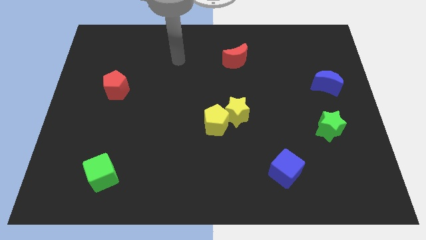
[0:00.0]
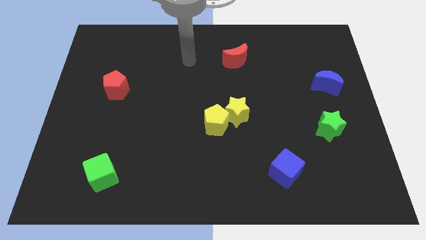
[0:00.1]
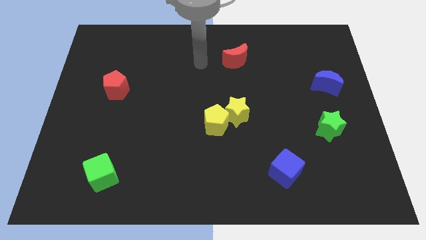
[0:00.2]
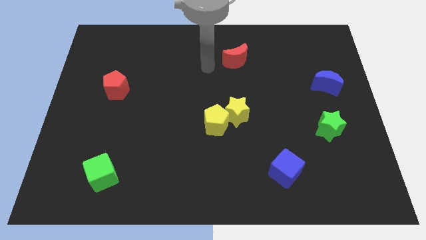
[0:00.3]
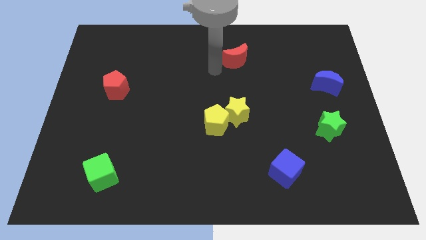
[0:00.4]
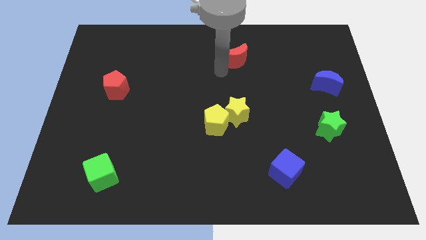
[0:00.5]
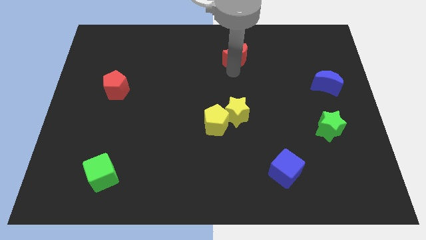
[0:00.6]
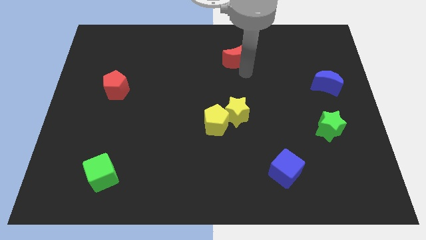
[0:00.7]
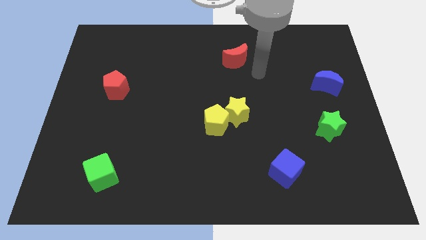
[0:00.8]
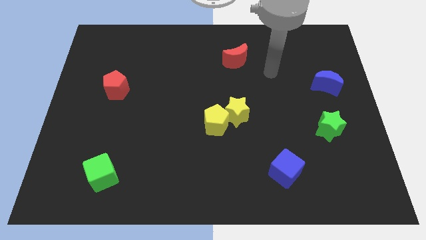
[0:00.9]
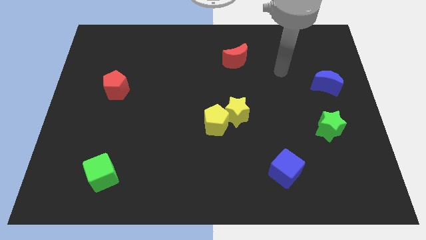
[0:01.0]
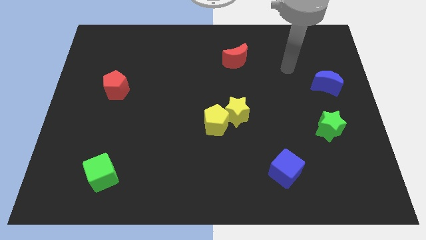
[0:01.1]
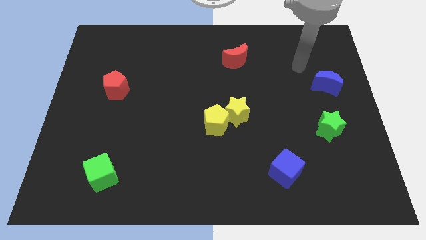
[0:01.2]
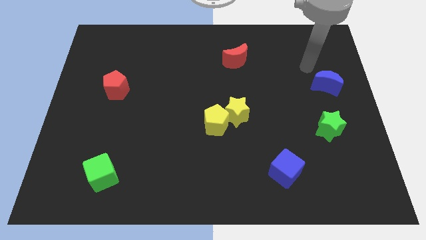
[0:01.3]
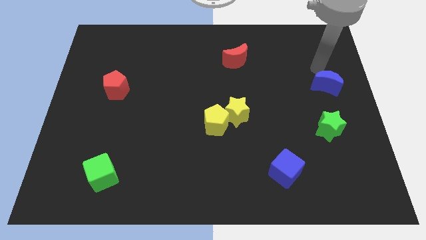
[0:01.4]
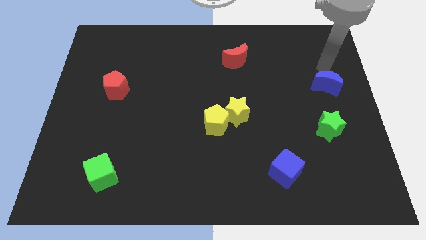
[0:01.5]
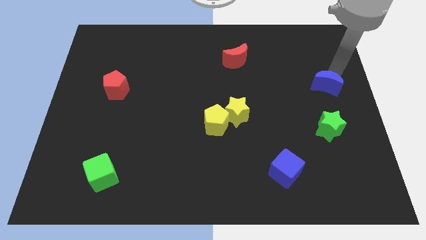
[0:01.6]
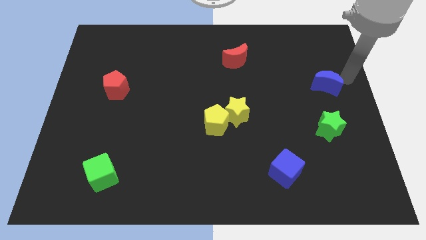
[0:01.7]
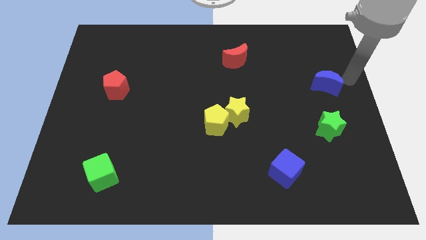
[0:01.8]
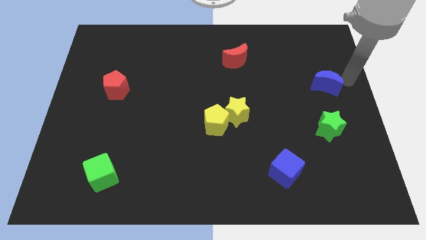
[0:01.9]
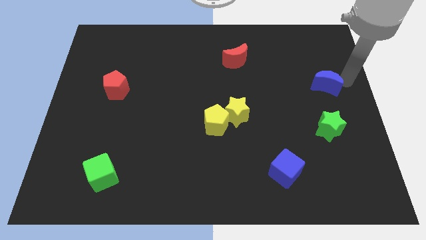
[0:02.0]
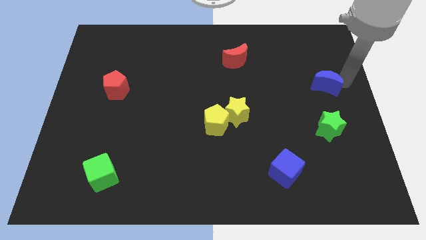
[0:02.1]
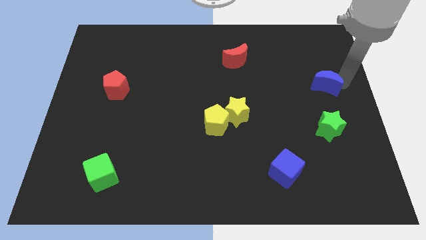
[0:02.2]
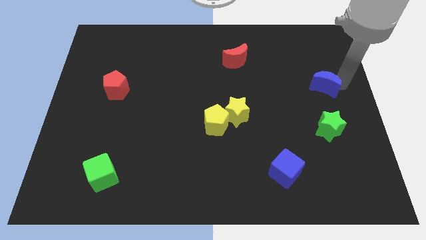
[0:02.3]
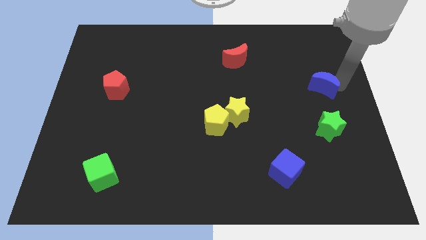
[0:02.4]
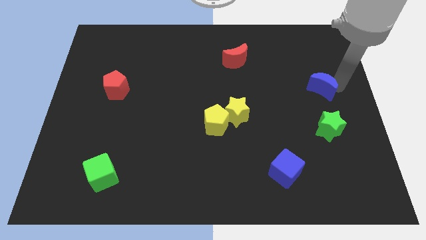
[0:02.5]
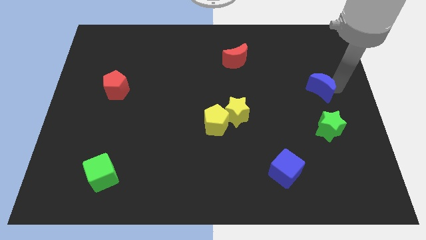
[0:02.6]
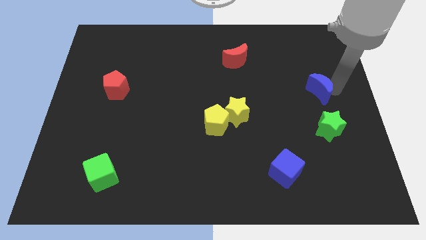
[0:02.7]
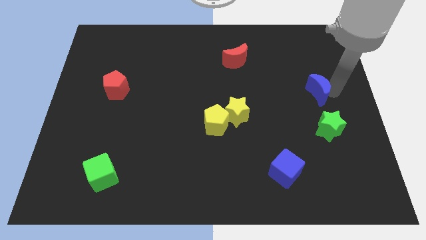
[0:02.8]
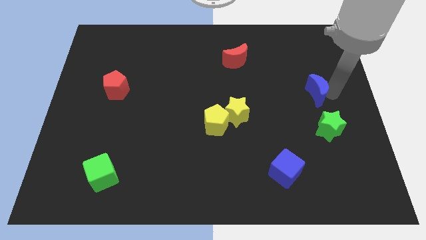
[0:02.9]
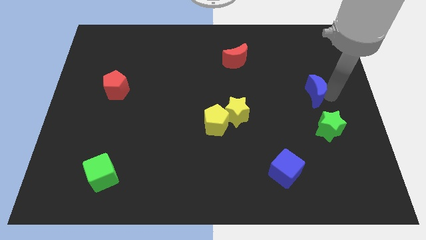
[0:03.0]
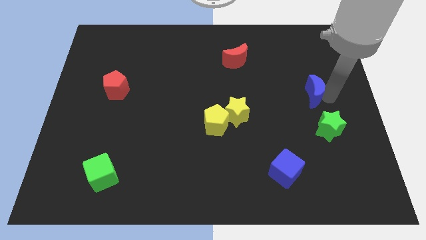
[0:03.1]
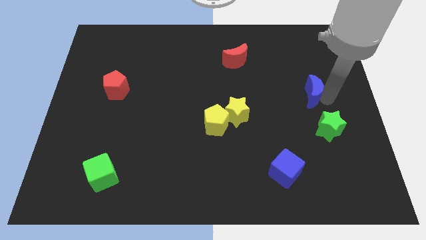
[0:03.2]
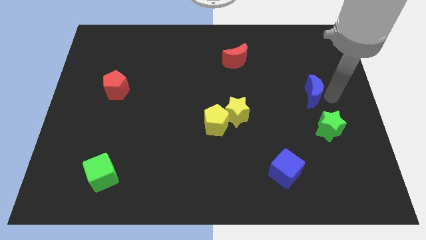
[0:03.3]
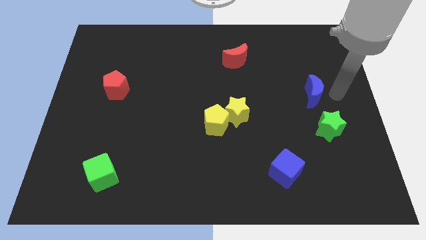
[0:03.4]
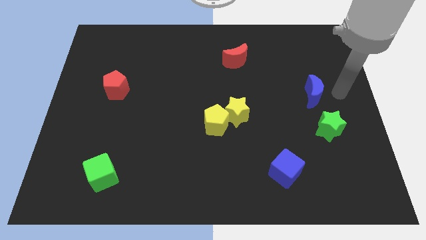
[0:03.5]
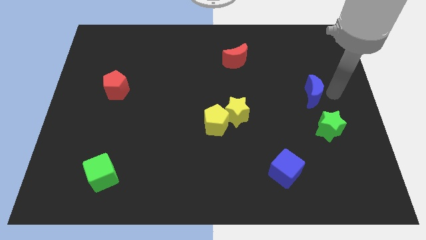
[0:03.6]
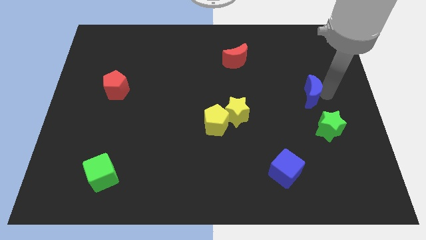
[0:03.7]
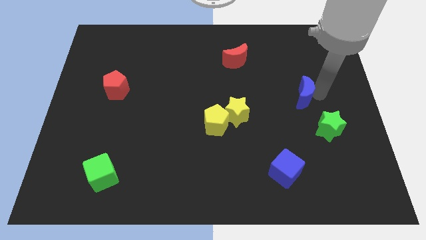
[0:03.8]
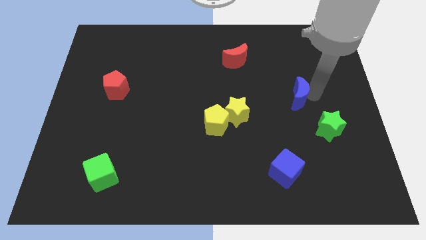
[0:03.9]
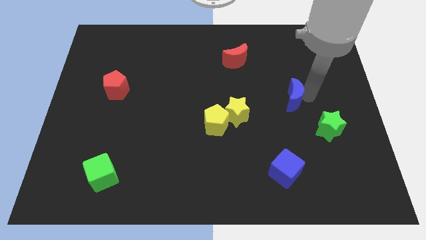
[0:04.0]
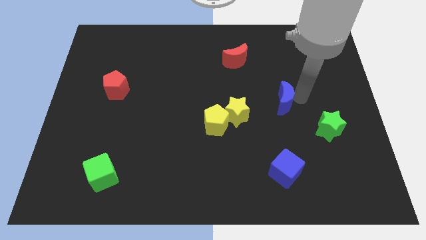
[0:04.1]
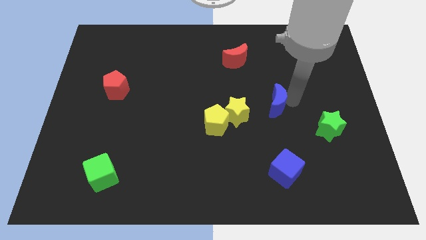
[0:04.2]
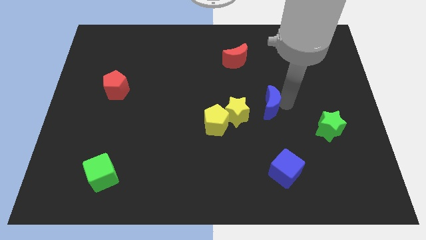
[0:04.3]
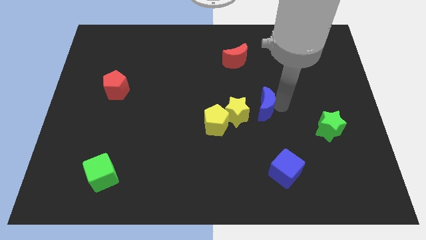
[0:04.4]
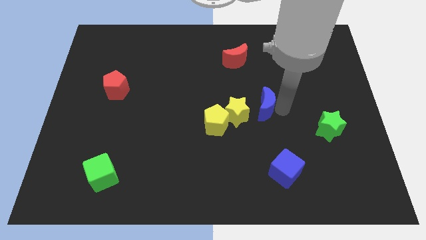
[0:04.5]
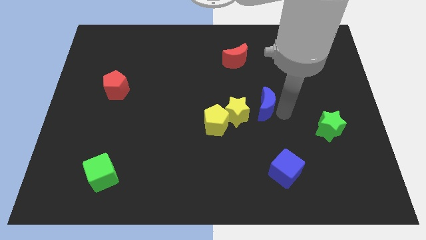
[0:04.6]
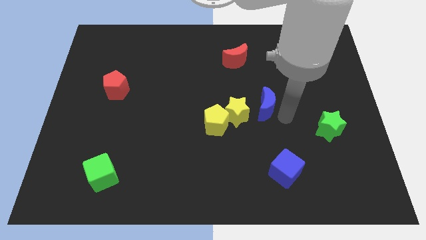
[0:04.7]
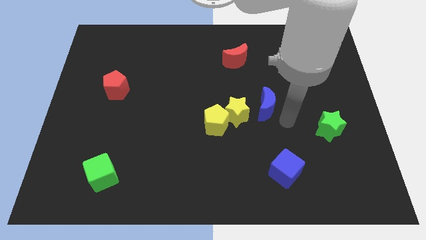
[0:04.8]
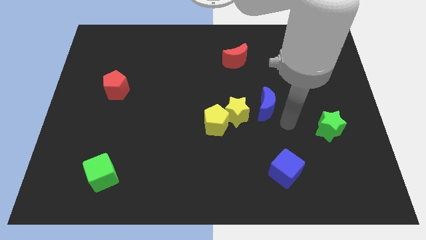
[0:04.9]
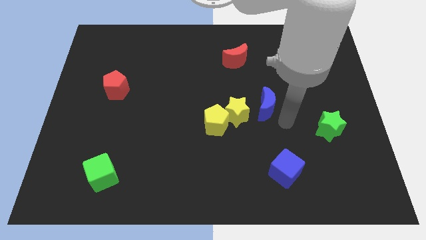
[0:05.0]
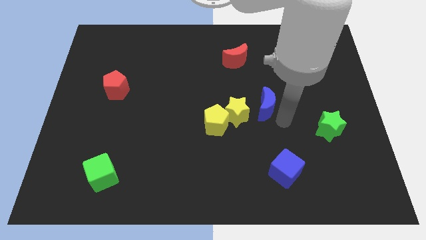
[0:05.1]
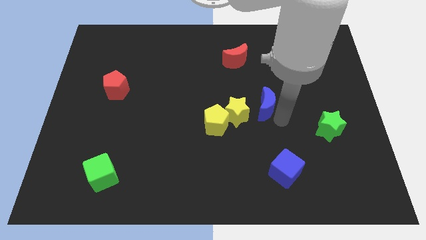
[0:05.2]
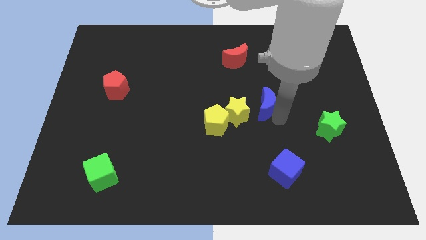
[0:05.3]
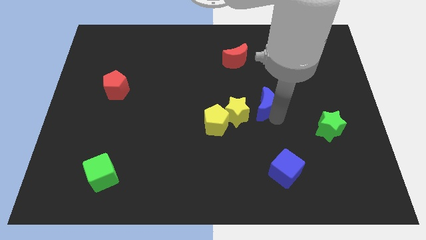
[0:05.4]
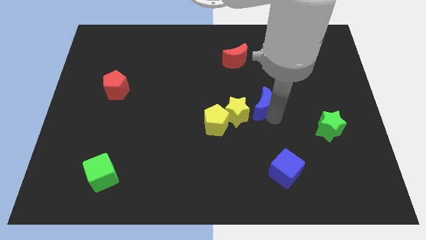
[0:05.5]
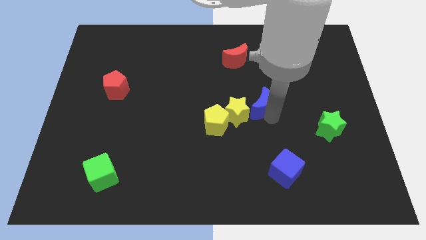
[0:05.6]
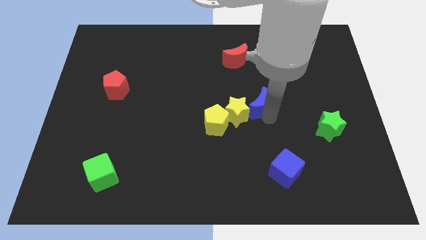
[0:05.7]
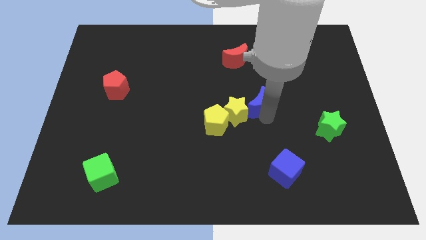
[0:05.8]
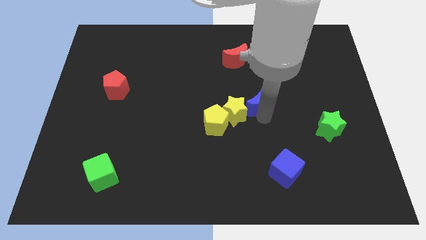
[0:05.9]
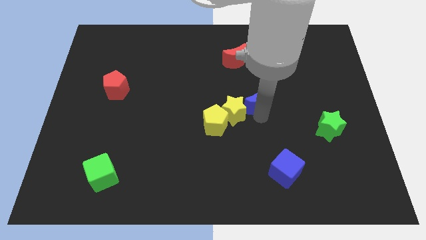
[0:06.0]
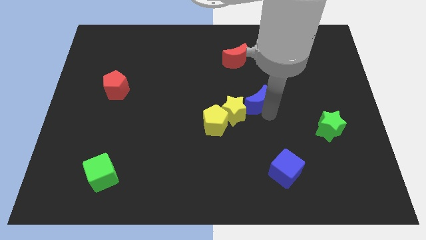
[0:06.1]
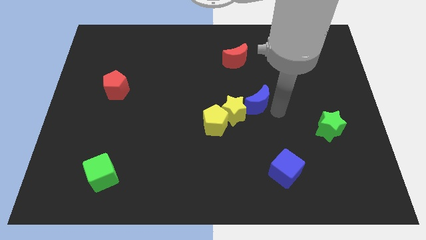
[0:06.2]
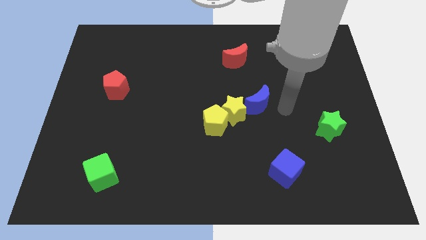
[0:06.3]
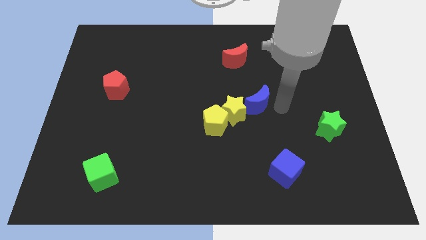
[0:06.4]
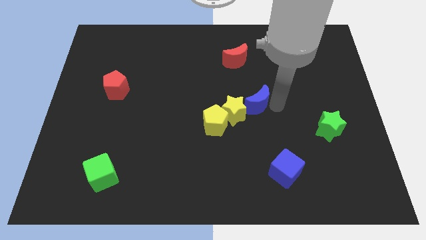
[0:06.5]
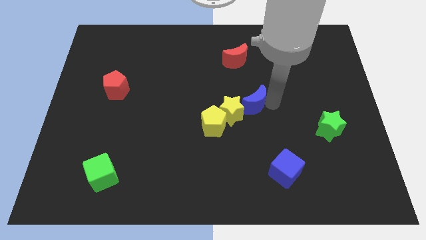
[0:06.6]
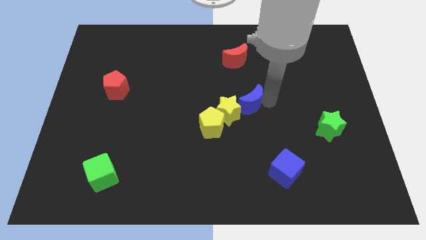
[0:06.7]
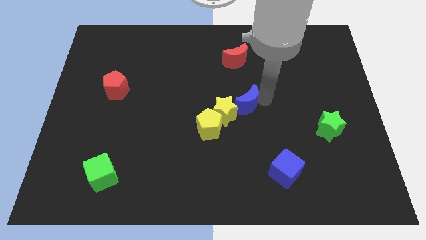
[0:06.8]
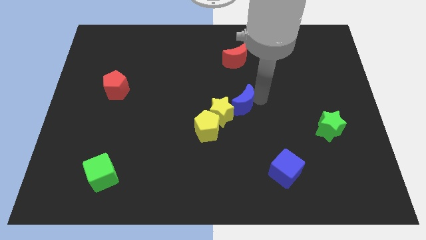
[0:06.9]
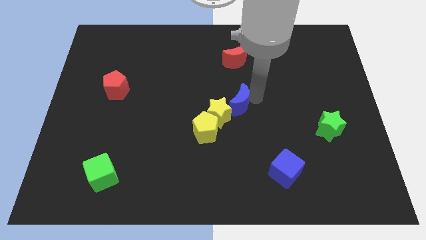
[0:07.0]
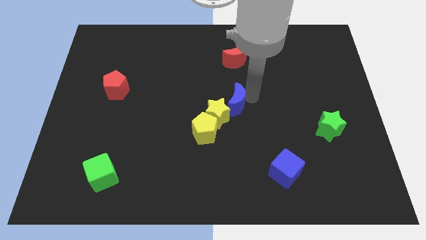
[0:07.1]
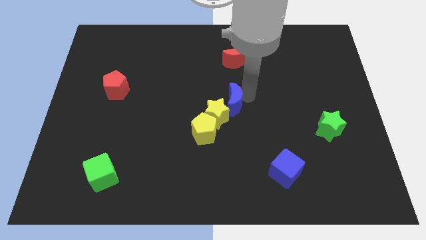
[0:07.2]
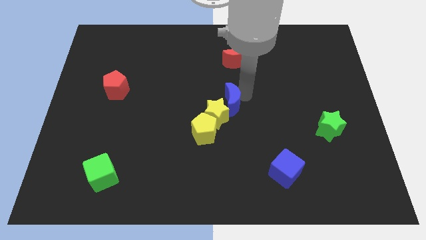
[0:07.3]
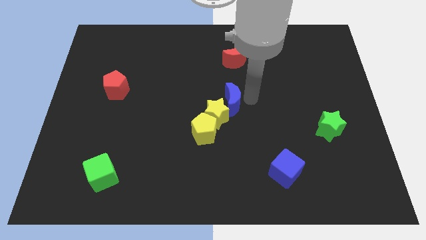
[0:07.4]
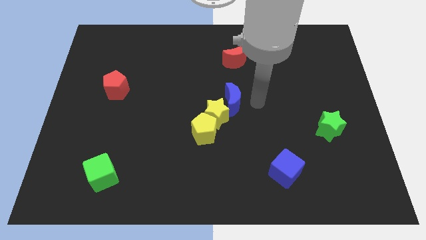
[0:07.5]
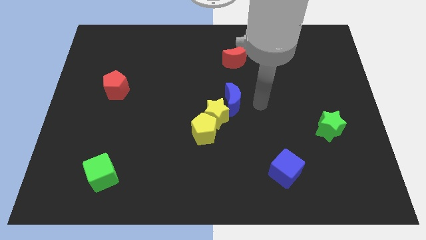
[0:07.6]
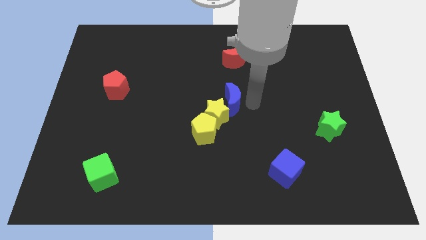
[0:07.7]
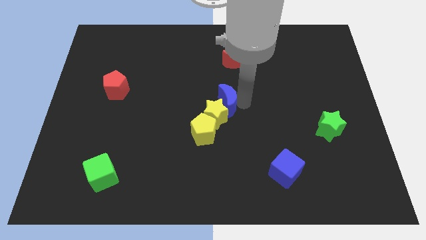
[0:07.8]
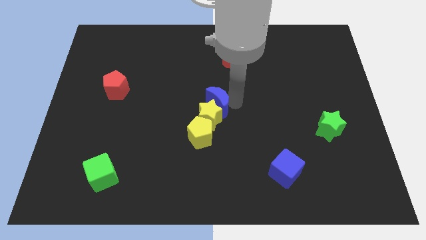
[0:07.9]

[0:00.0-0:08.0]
slide the blue moon to the top left of the yellow star
